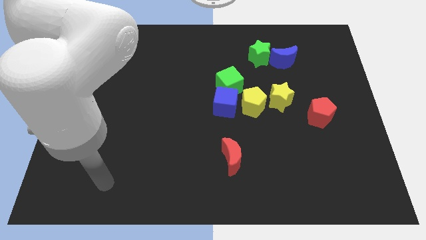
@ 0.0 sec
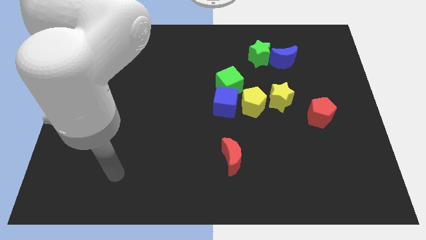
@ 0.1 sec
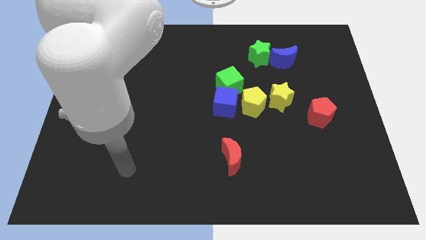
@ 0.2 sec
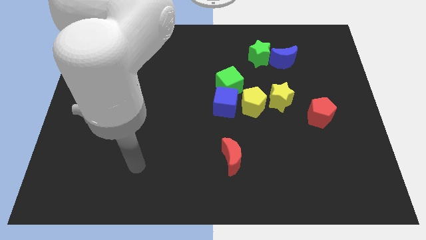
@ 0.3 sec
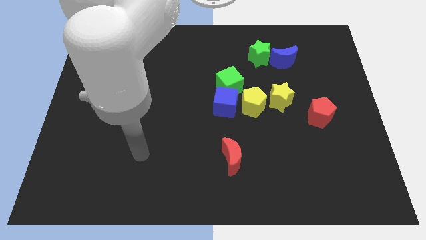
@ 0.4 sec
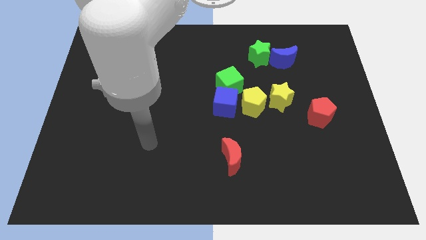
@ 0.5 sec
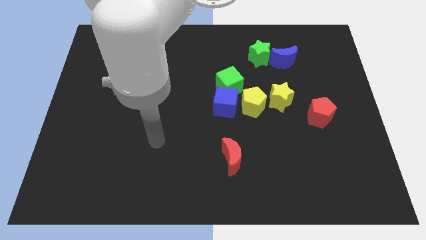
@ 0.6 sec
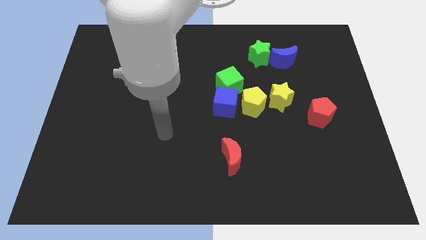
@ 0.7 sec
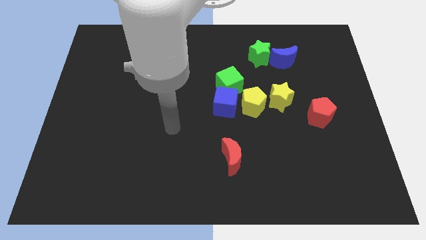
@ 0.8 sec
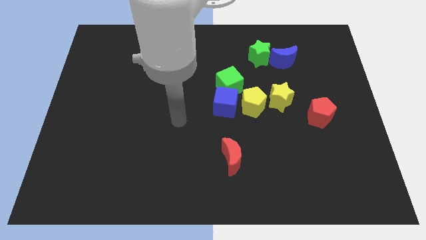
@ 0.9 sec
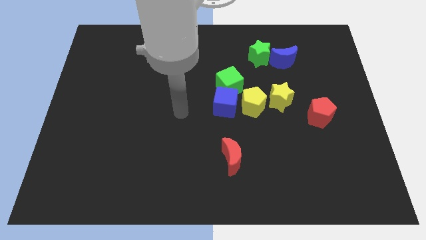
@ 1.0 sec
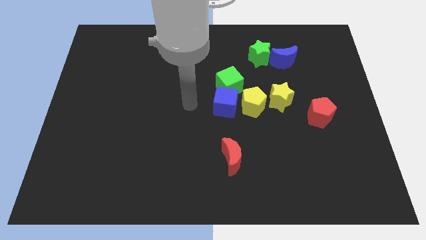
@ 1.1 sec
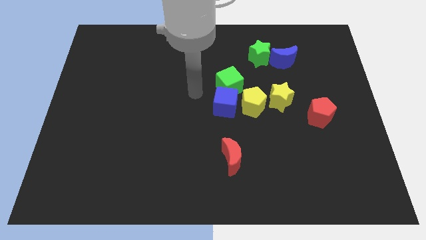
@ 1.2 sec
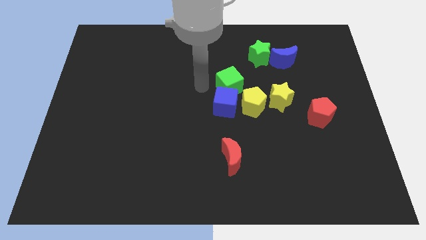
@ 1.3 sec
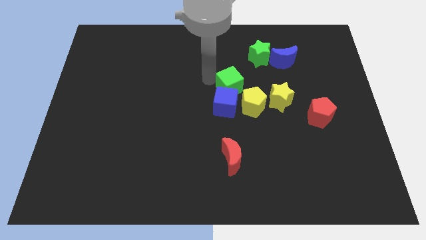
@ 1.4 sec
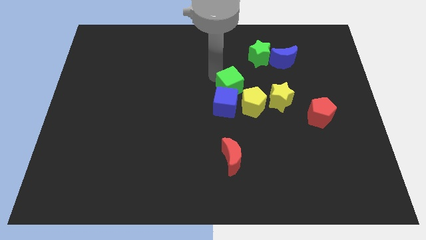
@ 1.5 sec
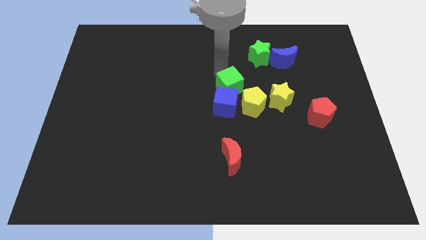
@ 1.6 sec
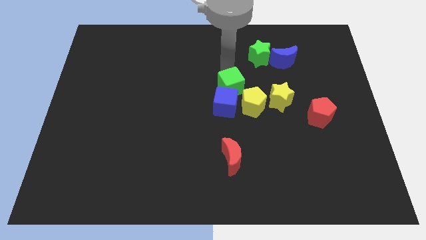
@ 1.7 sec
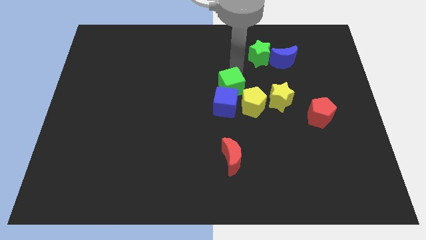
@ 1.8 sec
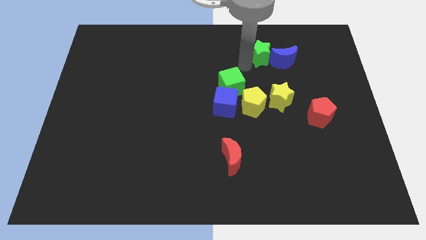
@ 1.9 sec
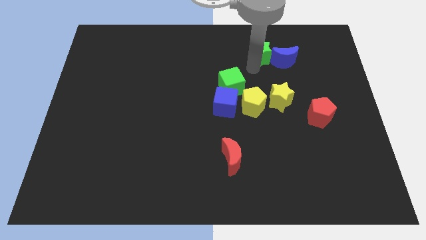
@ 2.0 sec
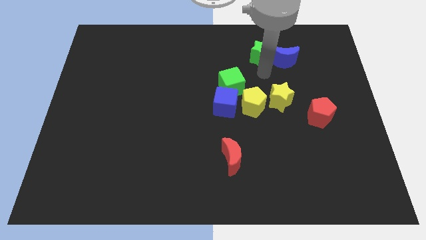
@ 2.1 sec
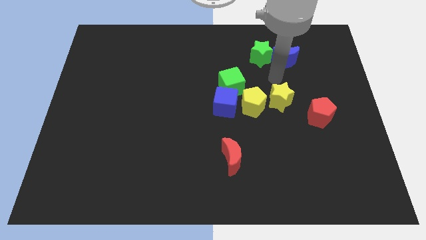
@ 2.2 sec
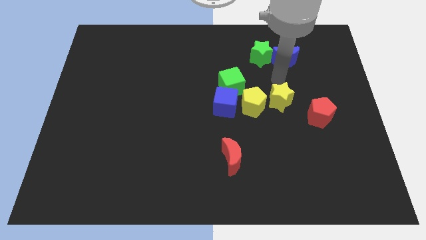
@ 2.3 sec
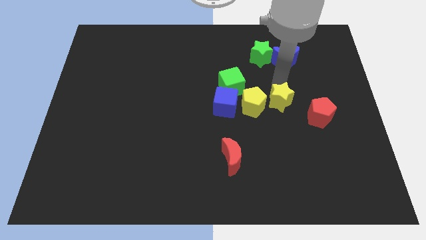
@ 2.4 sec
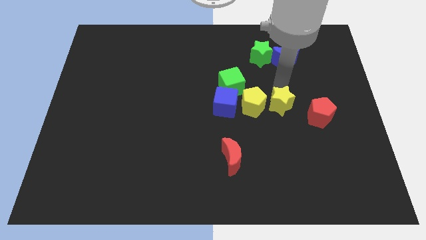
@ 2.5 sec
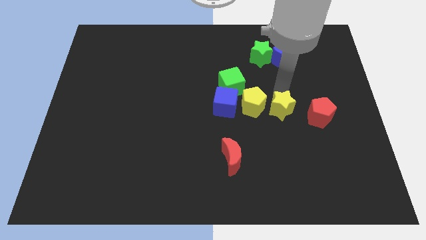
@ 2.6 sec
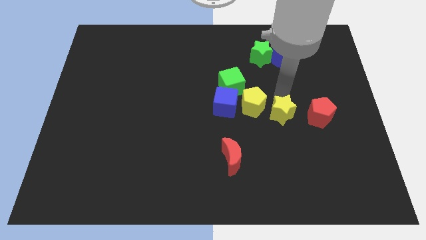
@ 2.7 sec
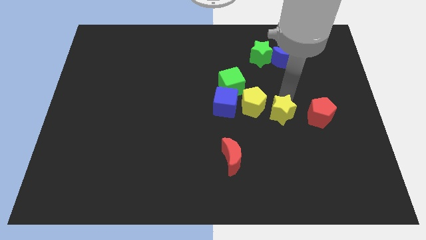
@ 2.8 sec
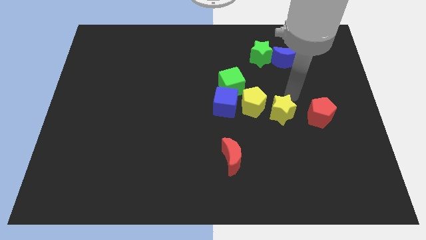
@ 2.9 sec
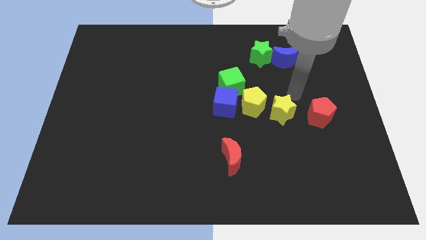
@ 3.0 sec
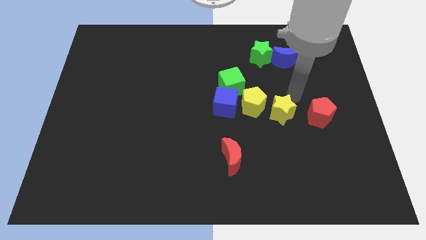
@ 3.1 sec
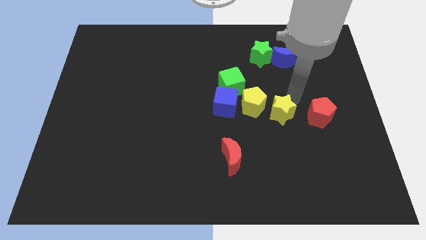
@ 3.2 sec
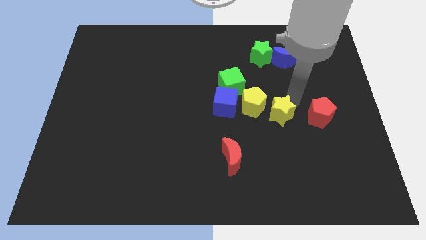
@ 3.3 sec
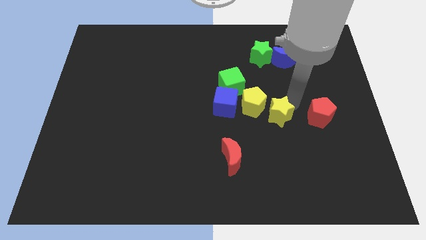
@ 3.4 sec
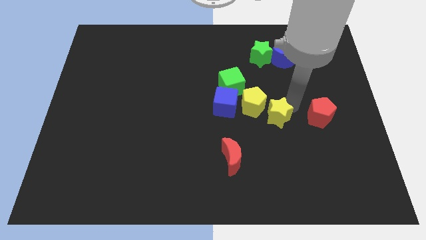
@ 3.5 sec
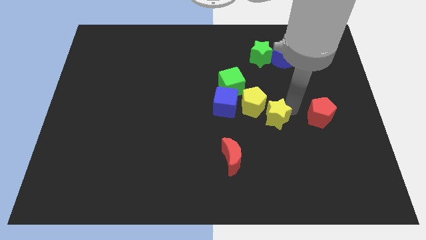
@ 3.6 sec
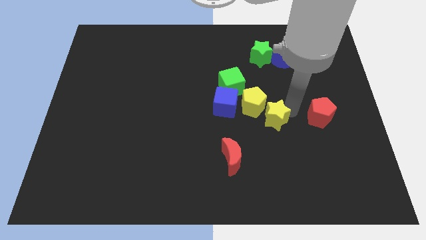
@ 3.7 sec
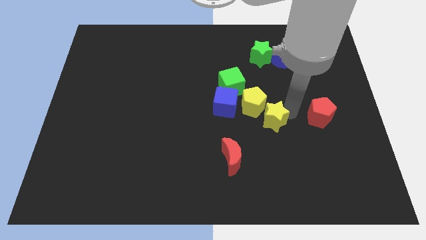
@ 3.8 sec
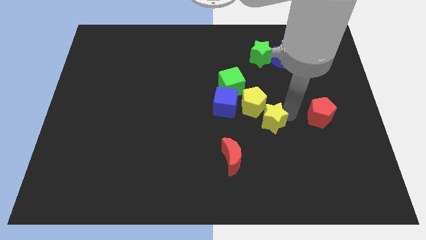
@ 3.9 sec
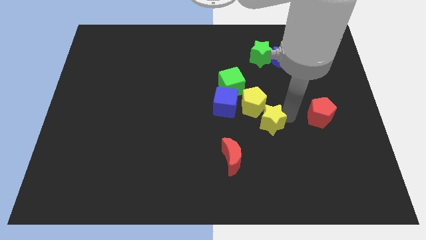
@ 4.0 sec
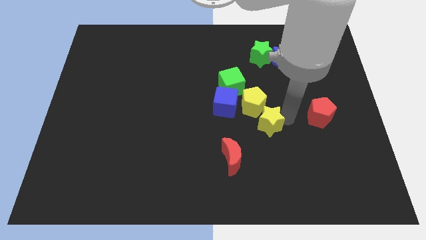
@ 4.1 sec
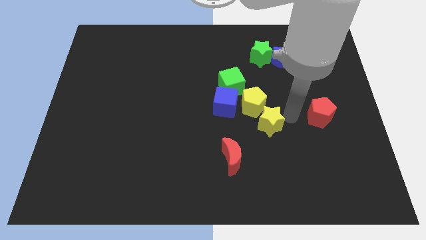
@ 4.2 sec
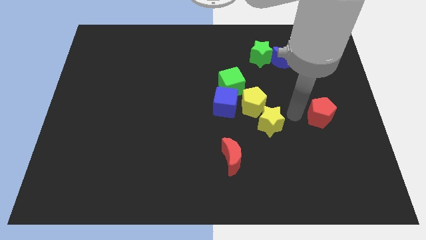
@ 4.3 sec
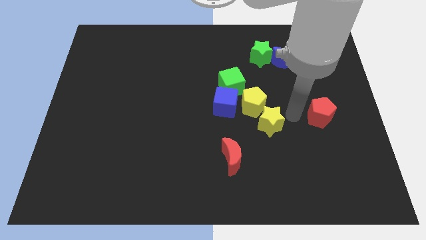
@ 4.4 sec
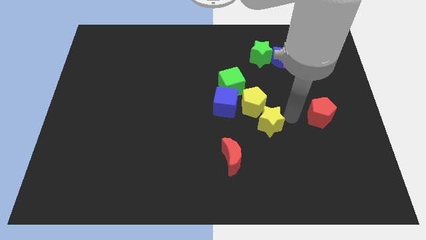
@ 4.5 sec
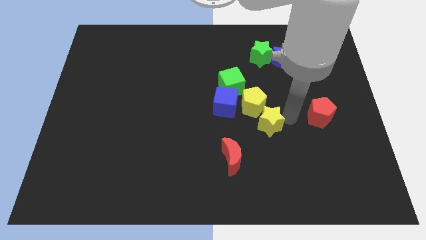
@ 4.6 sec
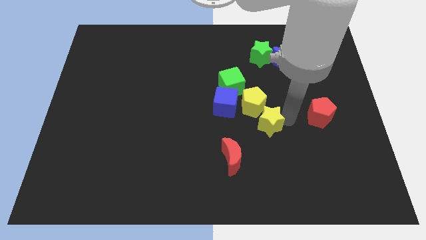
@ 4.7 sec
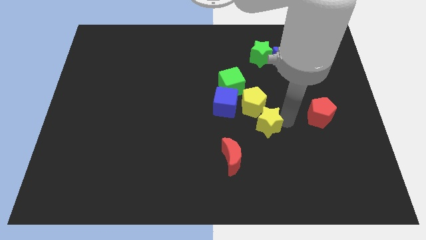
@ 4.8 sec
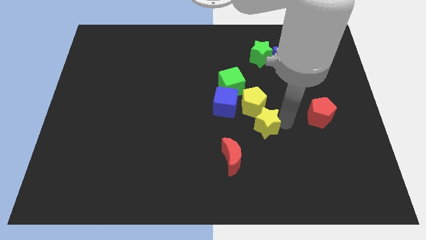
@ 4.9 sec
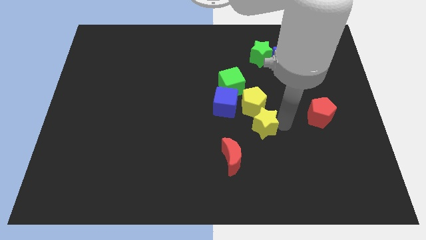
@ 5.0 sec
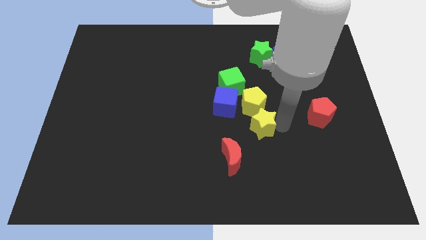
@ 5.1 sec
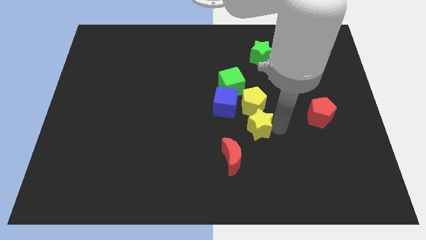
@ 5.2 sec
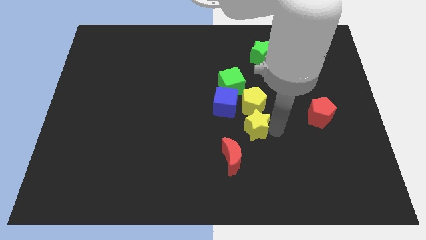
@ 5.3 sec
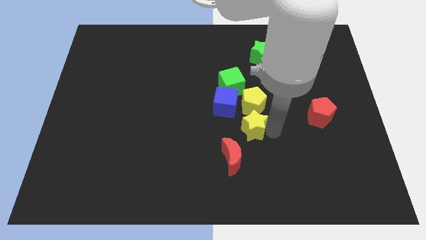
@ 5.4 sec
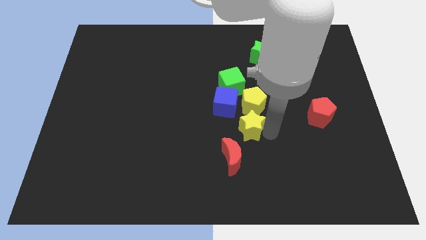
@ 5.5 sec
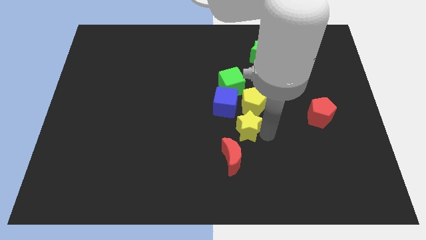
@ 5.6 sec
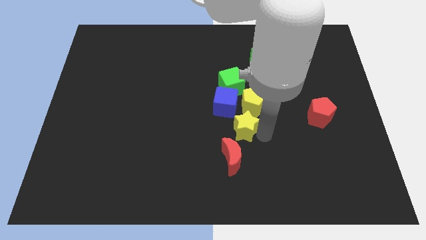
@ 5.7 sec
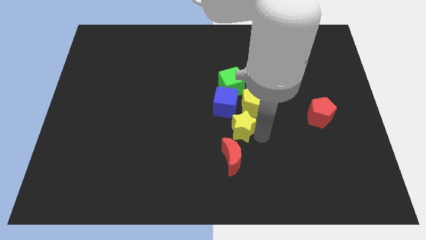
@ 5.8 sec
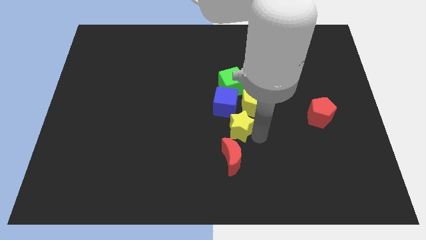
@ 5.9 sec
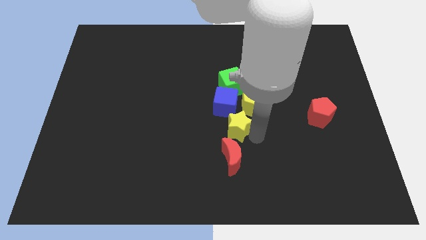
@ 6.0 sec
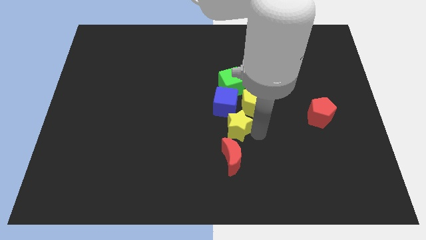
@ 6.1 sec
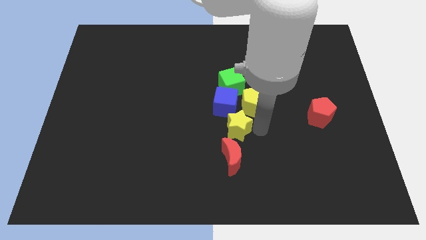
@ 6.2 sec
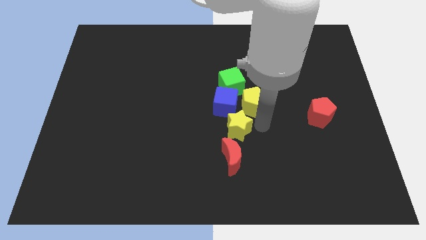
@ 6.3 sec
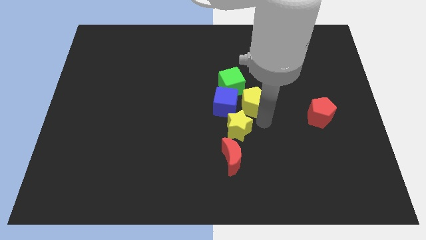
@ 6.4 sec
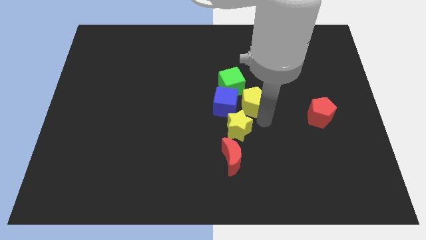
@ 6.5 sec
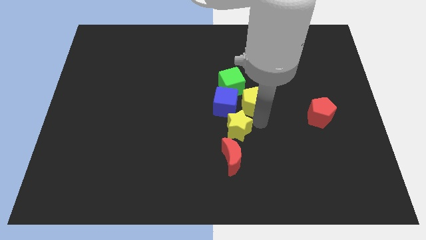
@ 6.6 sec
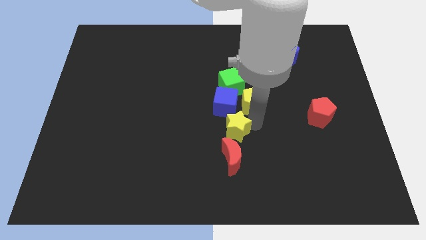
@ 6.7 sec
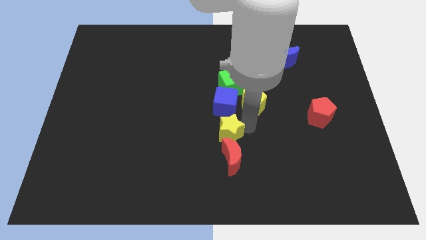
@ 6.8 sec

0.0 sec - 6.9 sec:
push the yellow star diagonally up and to the left of the red moon
